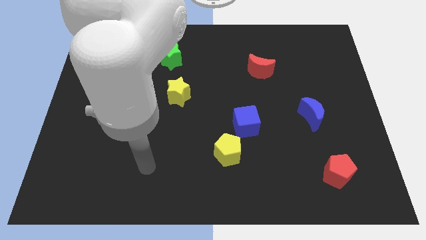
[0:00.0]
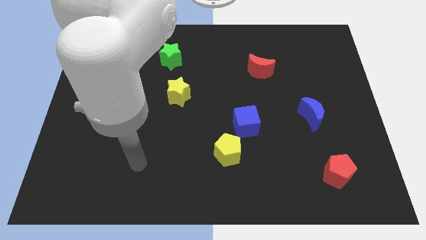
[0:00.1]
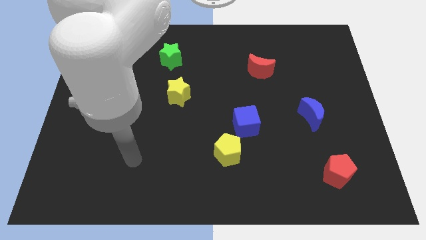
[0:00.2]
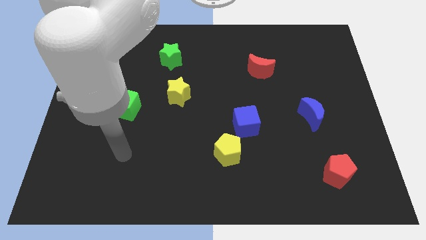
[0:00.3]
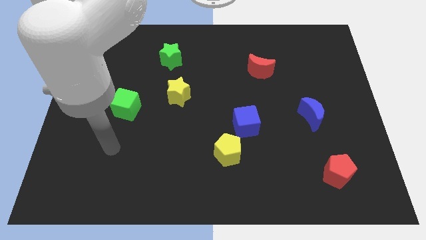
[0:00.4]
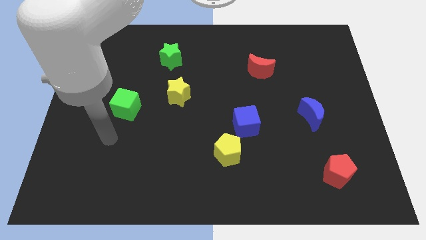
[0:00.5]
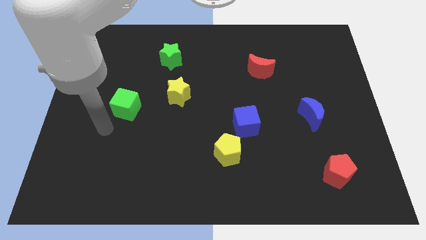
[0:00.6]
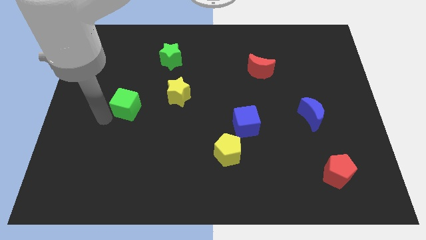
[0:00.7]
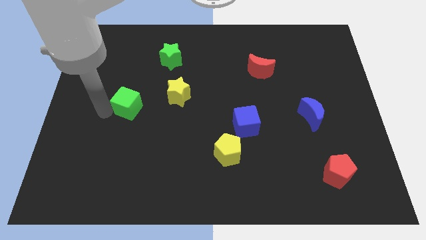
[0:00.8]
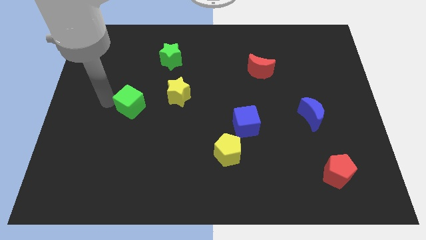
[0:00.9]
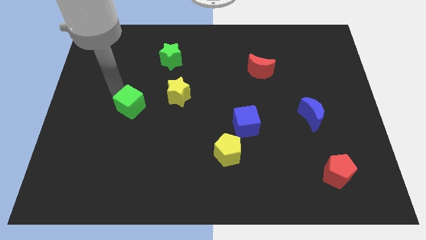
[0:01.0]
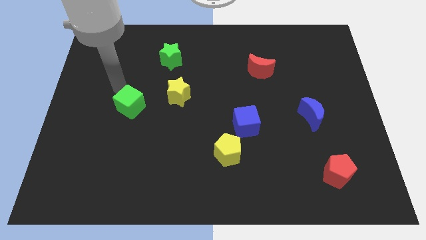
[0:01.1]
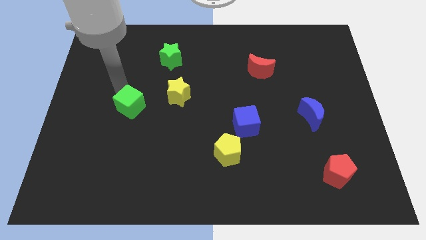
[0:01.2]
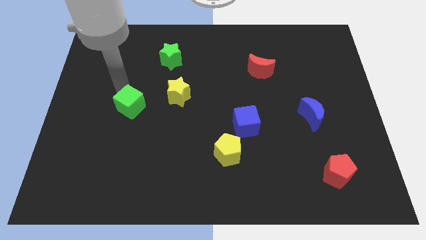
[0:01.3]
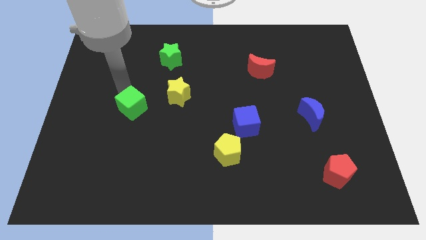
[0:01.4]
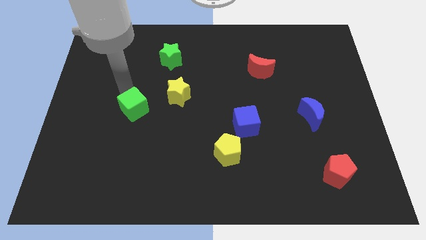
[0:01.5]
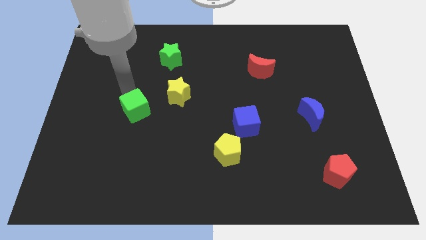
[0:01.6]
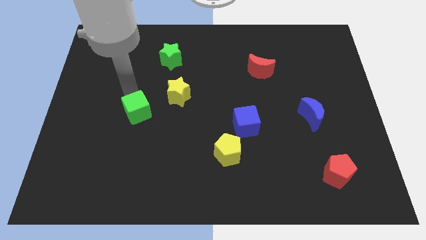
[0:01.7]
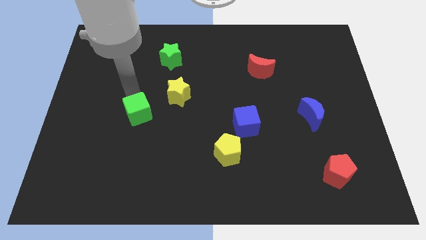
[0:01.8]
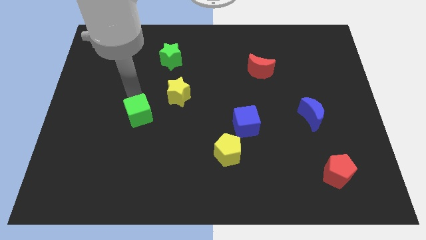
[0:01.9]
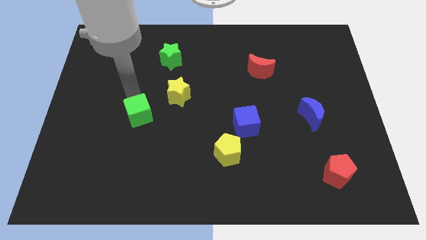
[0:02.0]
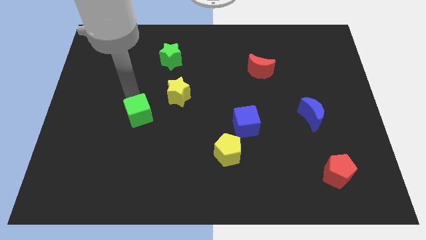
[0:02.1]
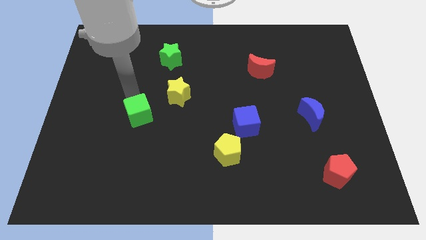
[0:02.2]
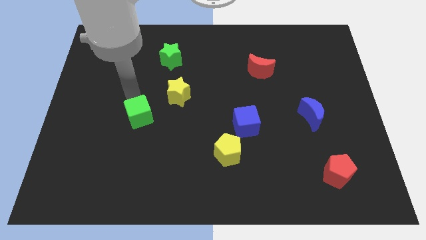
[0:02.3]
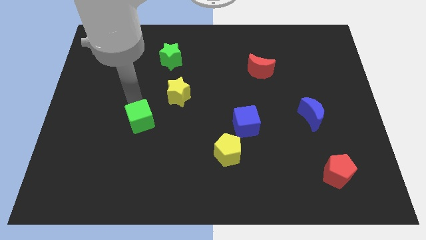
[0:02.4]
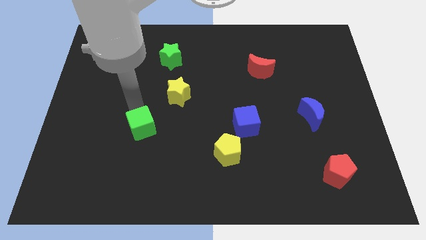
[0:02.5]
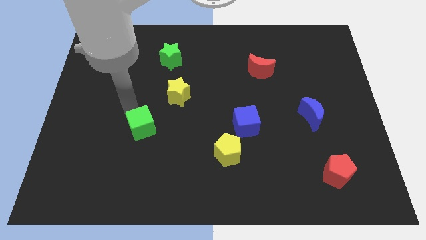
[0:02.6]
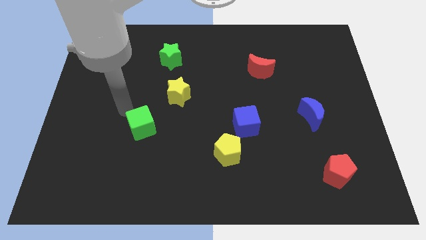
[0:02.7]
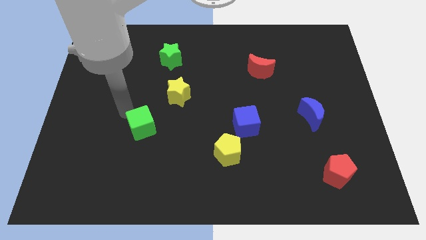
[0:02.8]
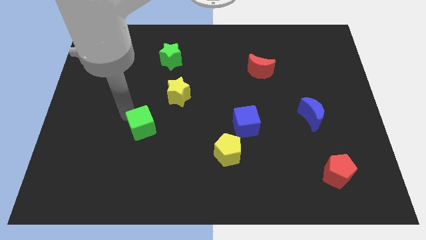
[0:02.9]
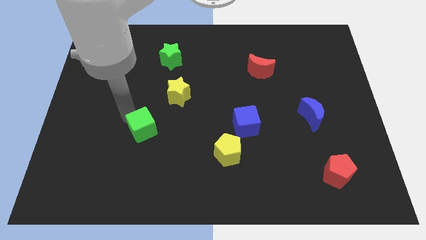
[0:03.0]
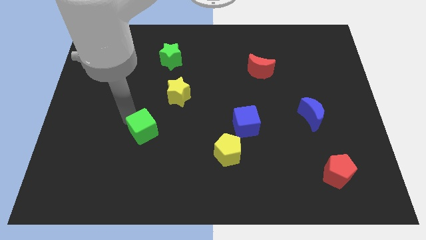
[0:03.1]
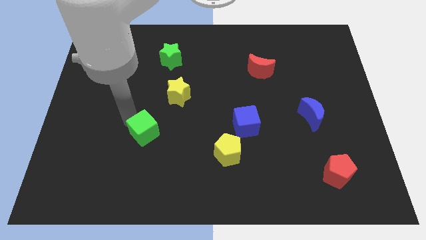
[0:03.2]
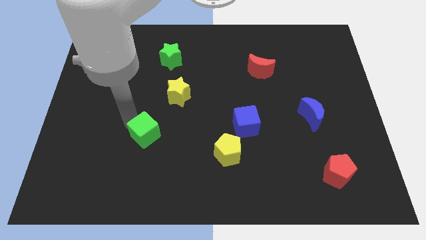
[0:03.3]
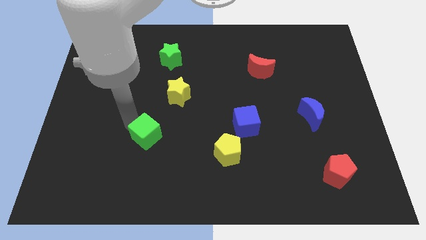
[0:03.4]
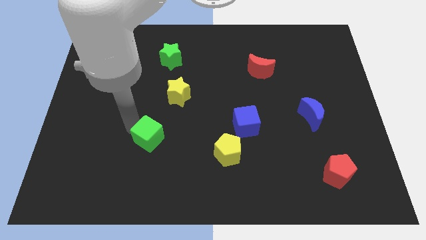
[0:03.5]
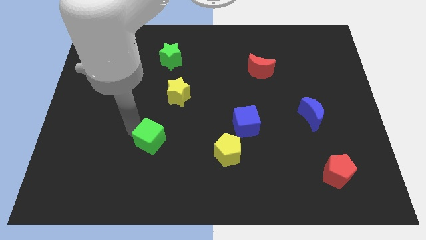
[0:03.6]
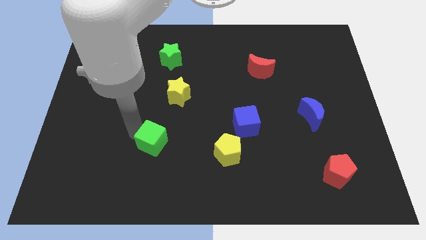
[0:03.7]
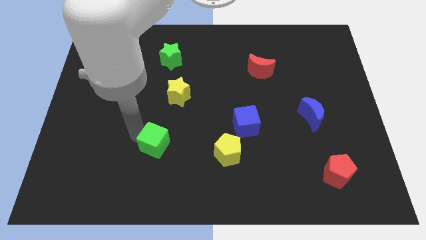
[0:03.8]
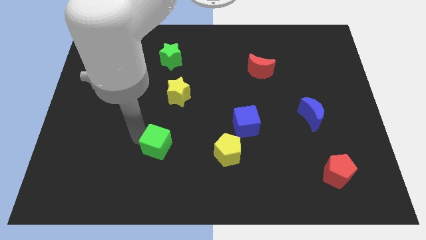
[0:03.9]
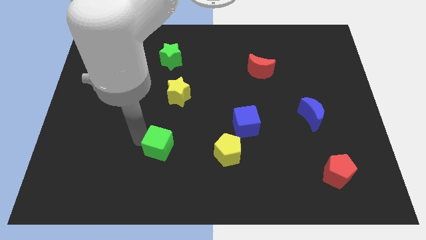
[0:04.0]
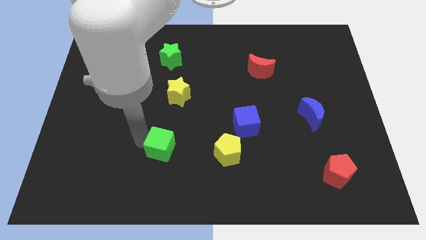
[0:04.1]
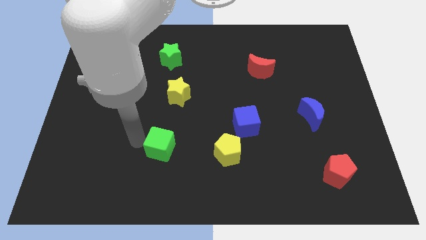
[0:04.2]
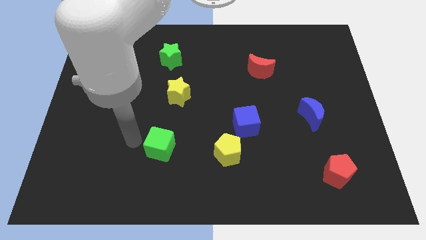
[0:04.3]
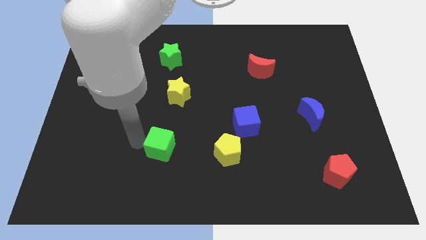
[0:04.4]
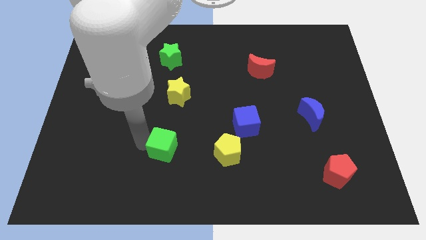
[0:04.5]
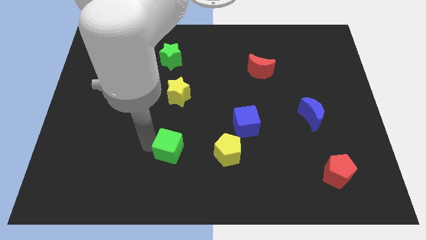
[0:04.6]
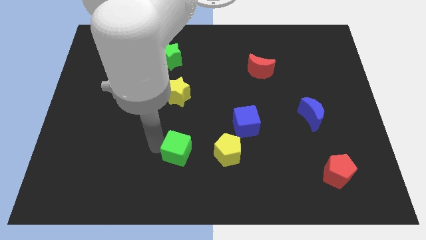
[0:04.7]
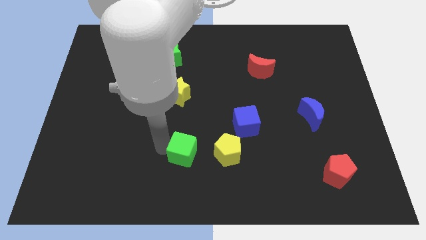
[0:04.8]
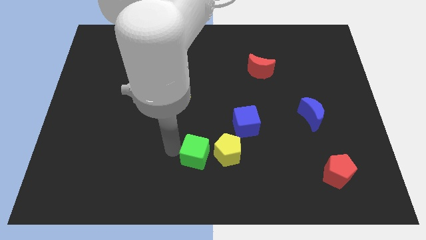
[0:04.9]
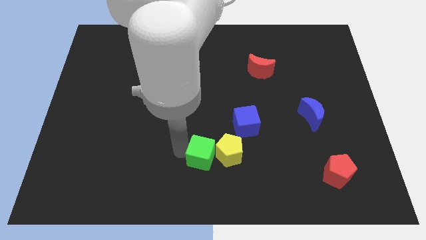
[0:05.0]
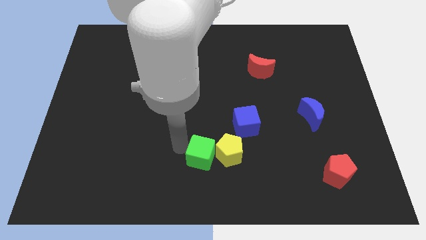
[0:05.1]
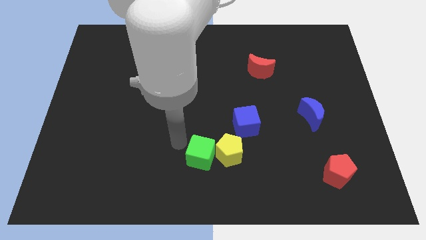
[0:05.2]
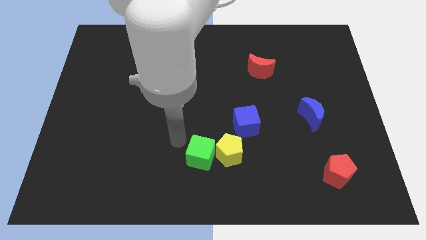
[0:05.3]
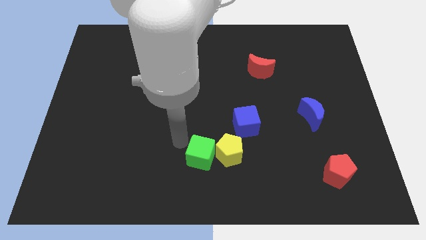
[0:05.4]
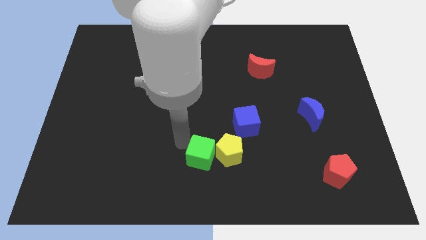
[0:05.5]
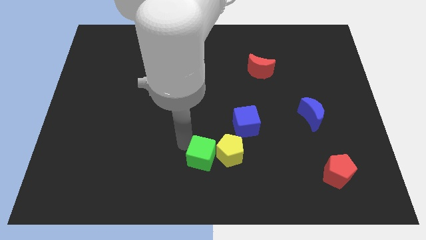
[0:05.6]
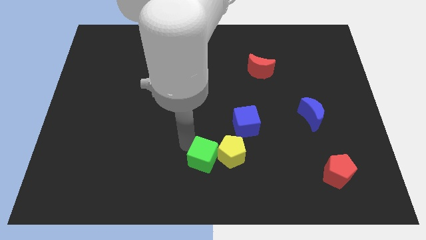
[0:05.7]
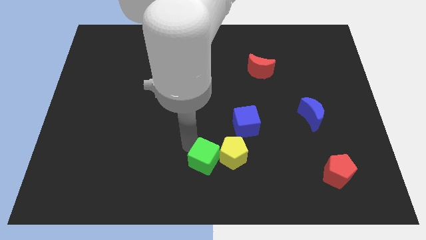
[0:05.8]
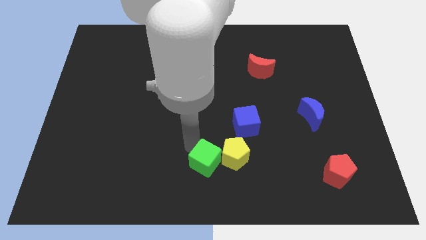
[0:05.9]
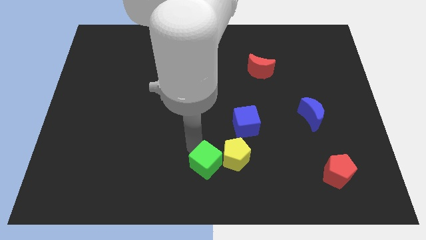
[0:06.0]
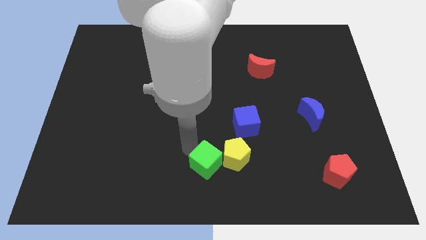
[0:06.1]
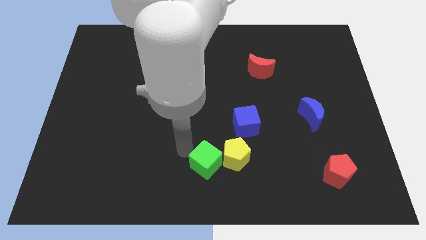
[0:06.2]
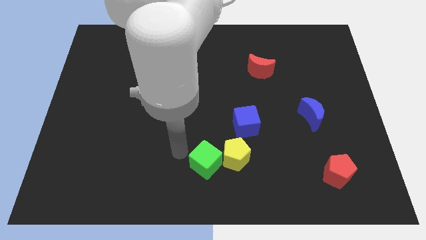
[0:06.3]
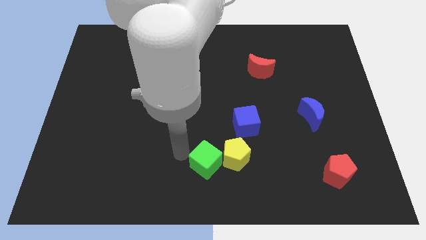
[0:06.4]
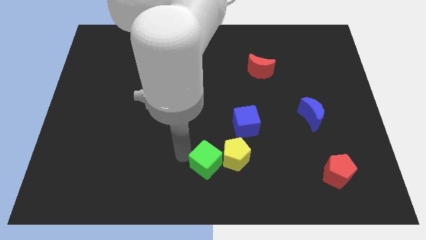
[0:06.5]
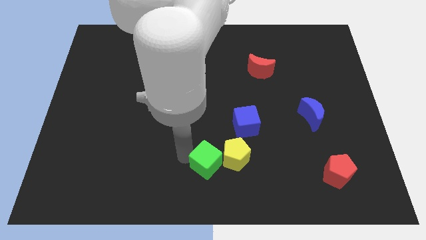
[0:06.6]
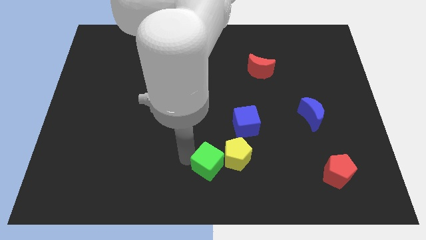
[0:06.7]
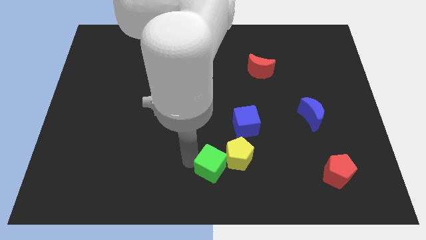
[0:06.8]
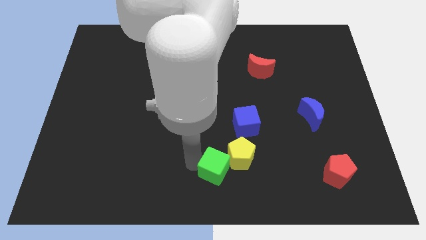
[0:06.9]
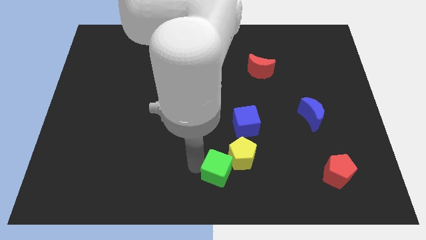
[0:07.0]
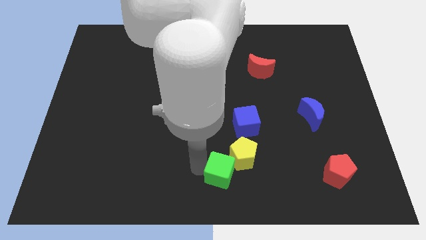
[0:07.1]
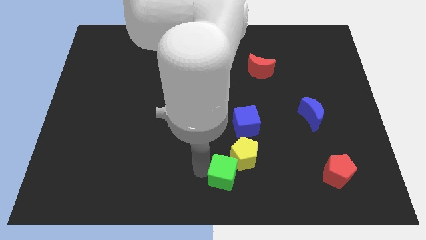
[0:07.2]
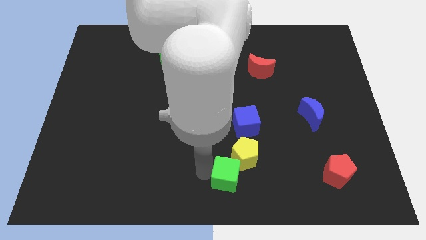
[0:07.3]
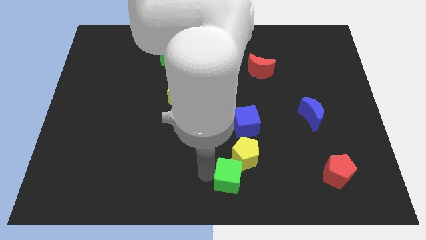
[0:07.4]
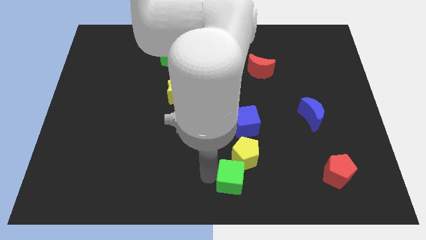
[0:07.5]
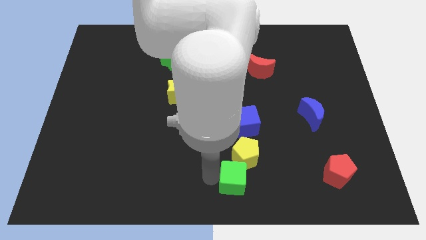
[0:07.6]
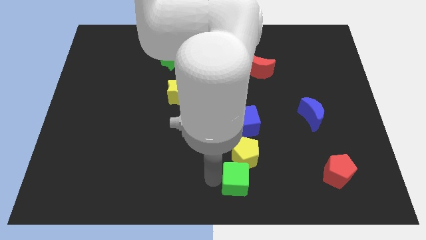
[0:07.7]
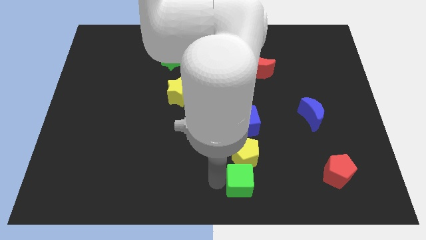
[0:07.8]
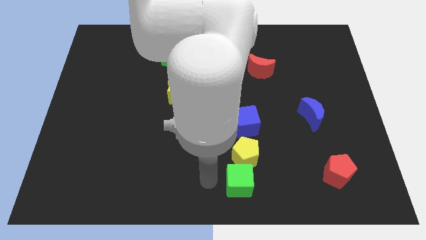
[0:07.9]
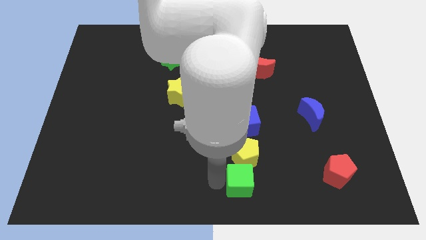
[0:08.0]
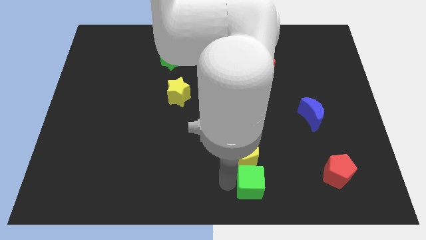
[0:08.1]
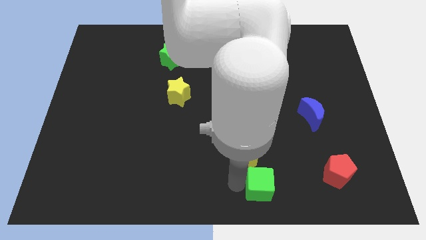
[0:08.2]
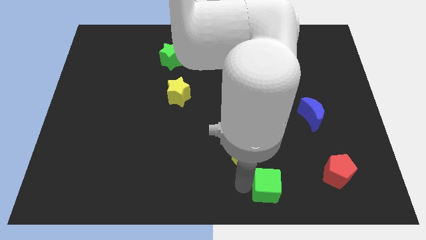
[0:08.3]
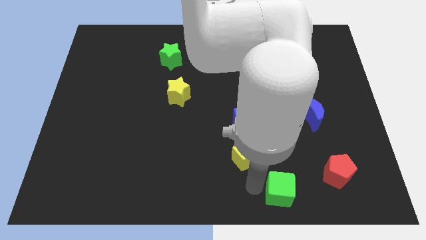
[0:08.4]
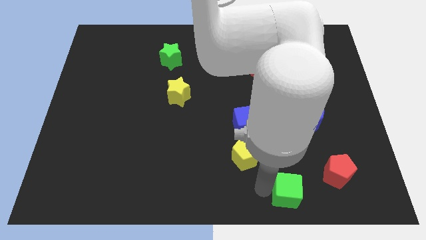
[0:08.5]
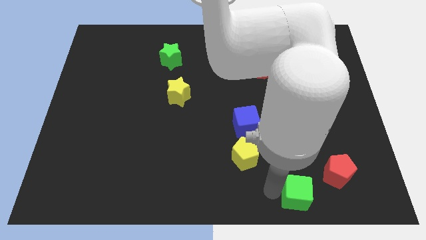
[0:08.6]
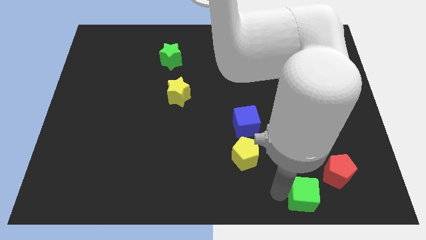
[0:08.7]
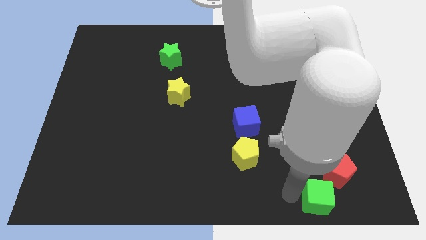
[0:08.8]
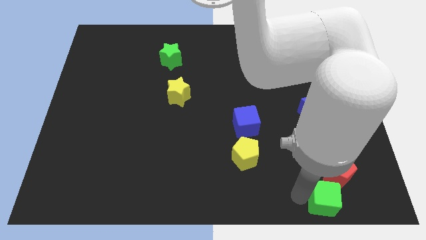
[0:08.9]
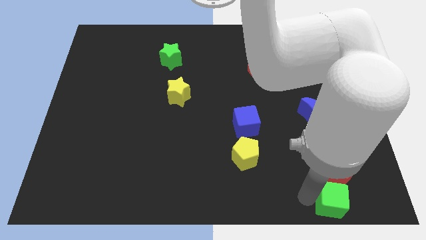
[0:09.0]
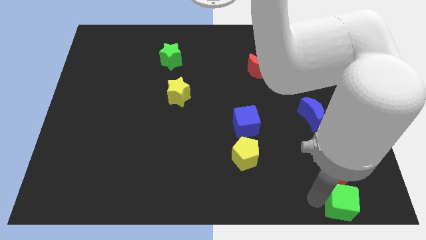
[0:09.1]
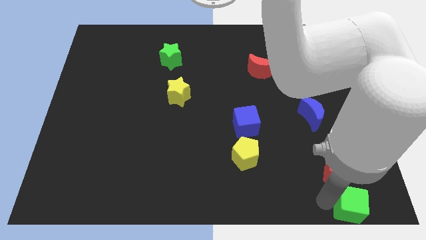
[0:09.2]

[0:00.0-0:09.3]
push the green cube to the bottom right of the board
